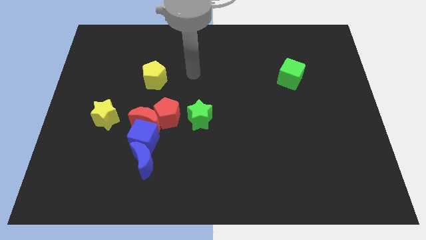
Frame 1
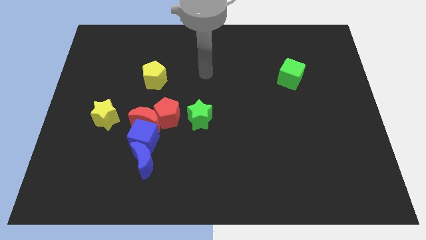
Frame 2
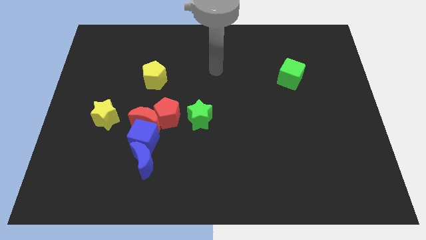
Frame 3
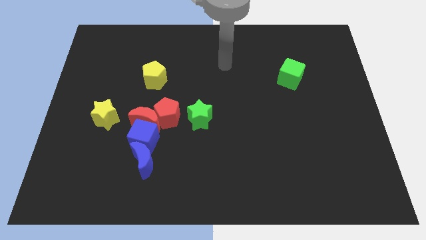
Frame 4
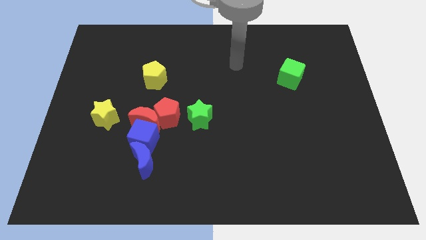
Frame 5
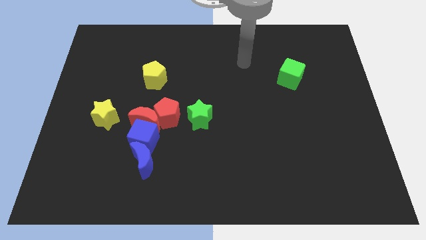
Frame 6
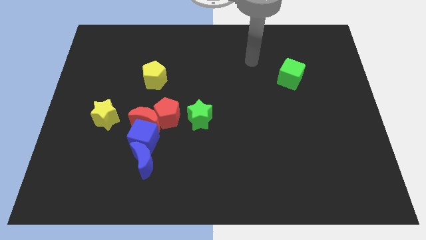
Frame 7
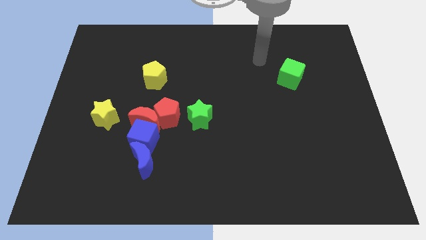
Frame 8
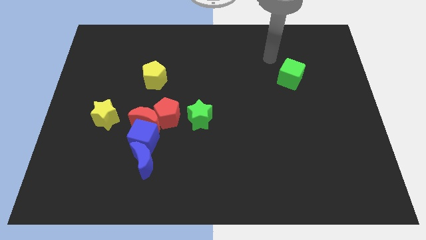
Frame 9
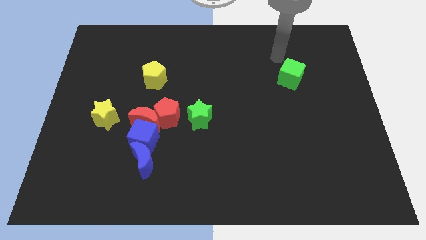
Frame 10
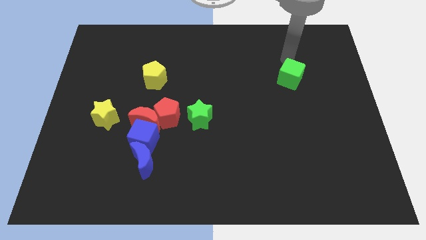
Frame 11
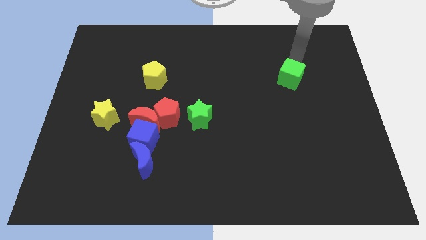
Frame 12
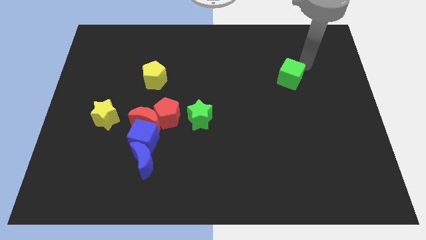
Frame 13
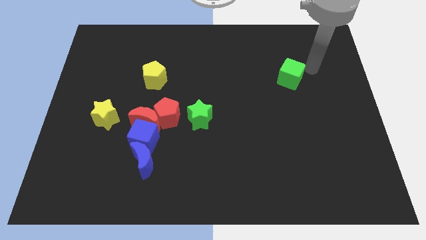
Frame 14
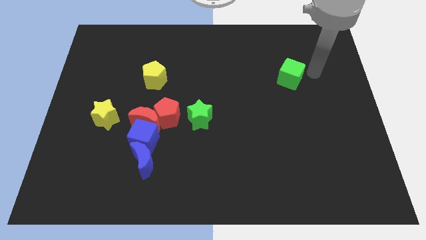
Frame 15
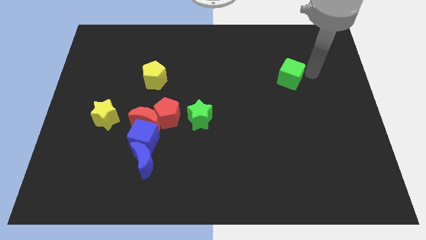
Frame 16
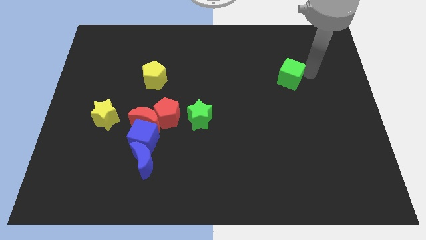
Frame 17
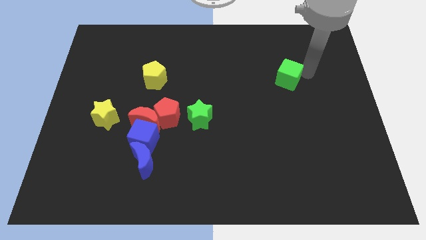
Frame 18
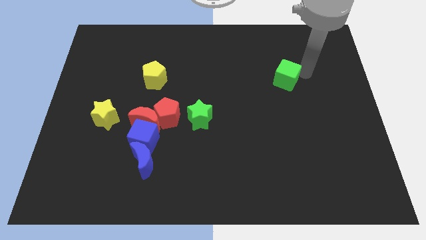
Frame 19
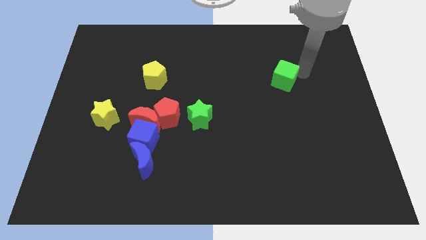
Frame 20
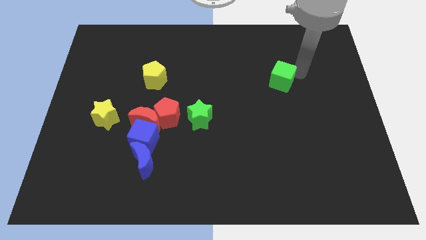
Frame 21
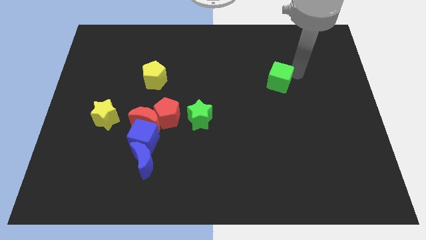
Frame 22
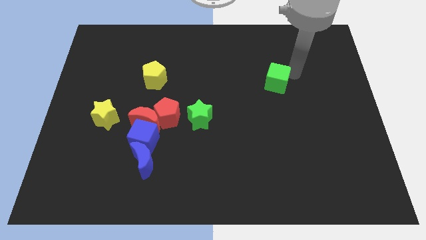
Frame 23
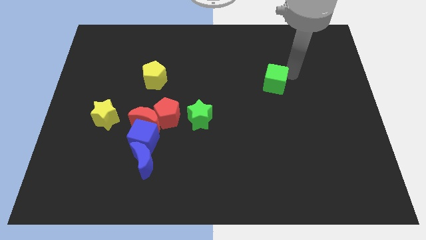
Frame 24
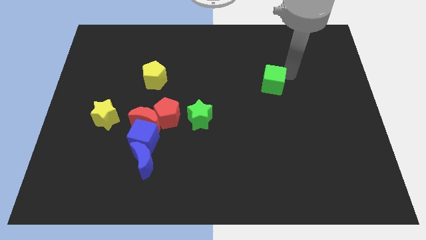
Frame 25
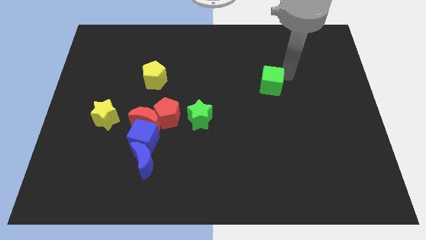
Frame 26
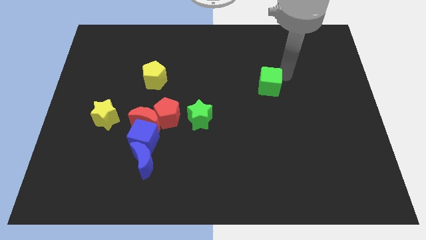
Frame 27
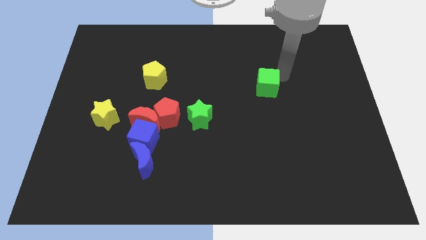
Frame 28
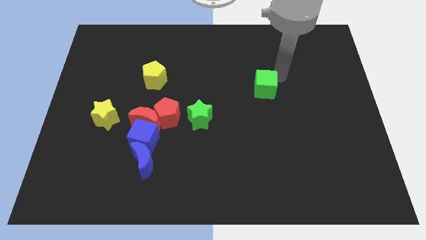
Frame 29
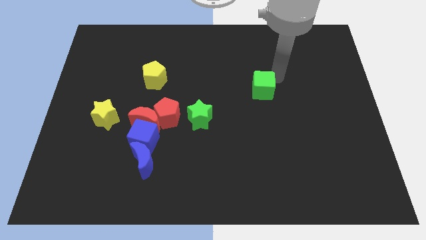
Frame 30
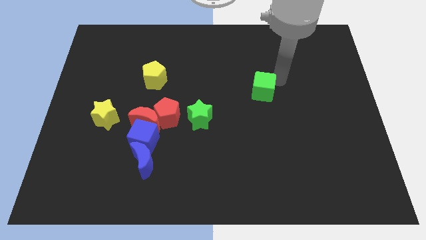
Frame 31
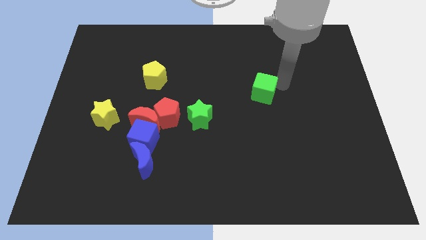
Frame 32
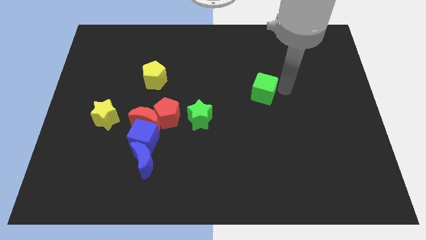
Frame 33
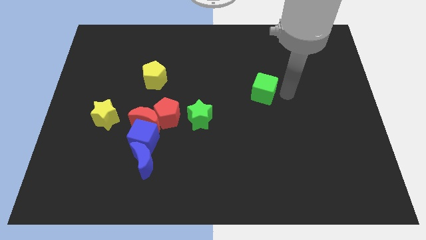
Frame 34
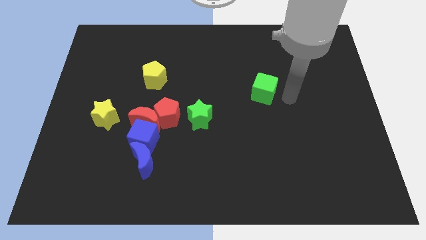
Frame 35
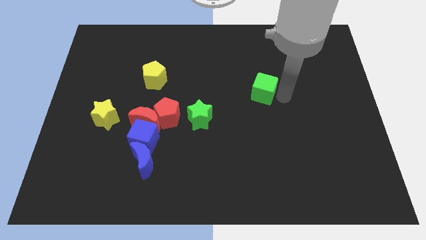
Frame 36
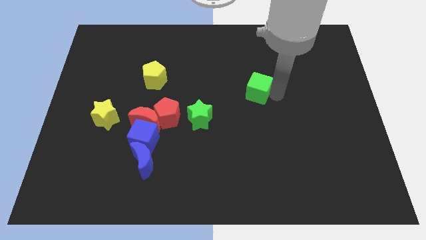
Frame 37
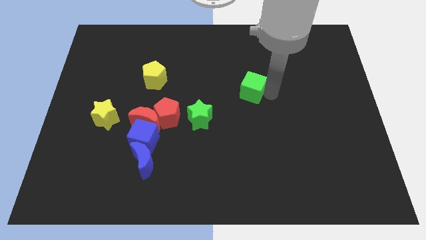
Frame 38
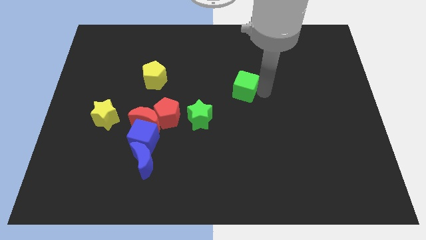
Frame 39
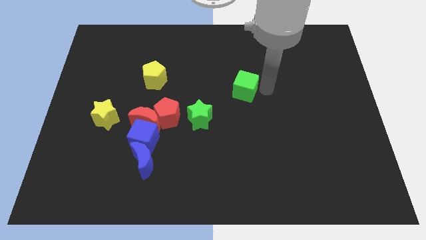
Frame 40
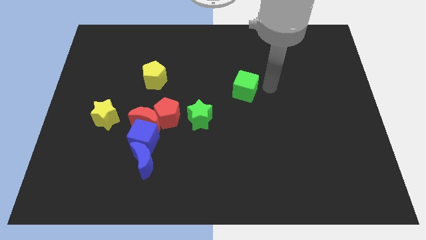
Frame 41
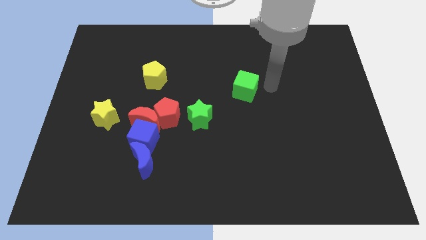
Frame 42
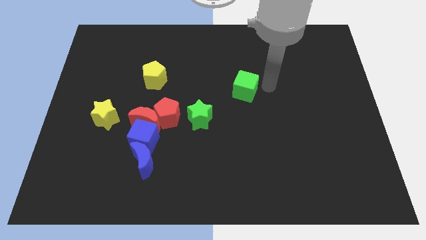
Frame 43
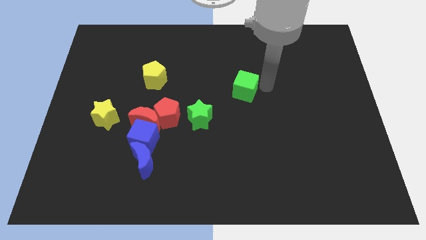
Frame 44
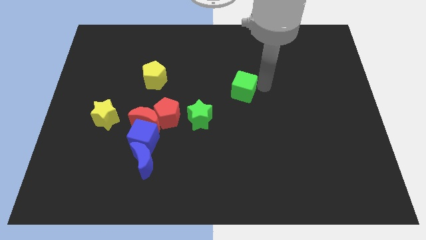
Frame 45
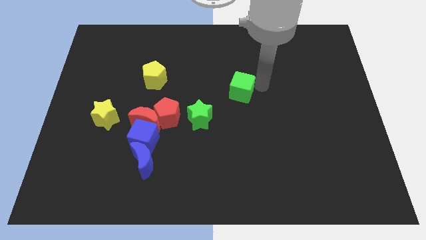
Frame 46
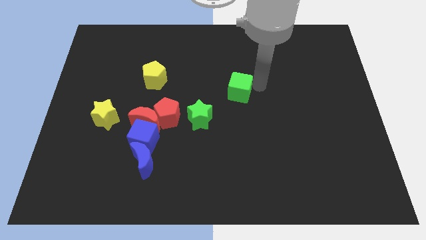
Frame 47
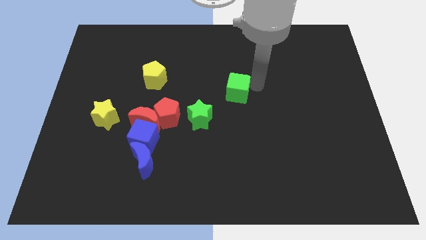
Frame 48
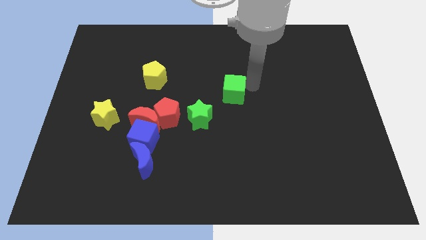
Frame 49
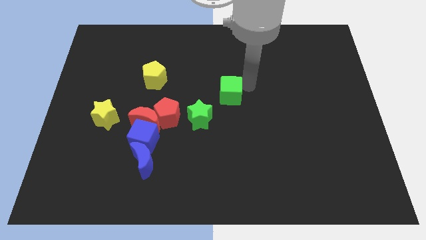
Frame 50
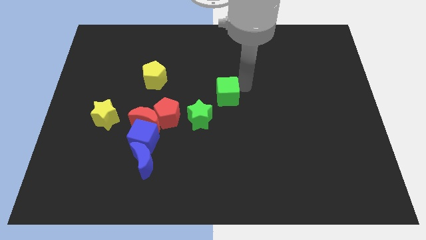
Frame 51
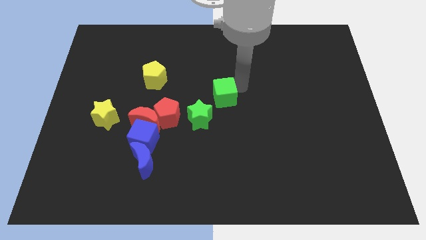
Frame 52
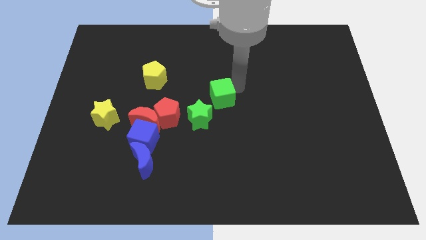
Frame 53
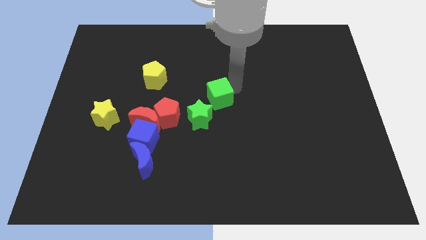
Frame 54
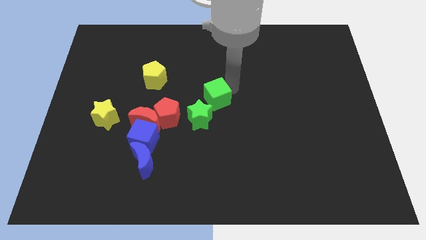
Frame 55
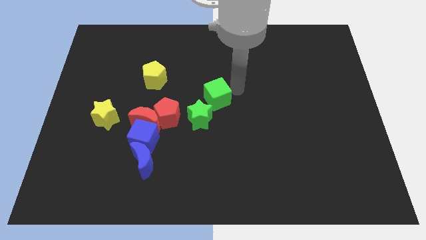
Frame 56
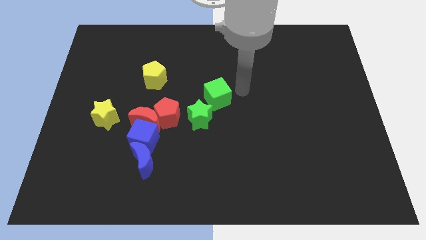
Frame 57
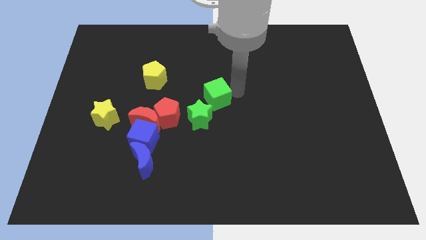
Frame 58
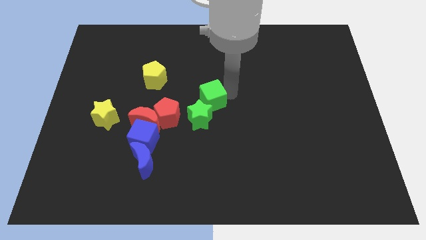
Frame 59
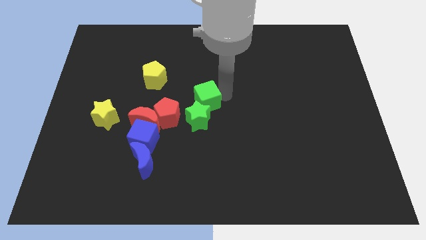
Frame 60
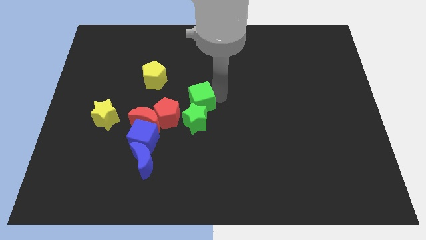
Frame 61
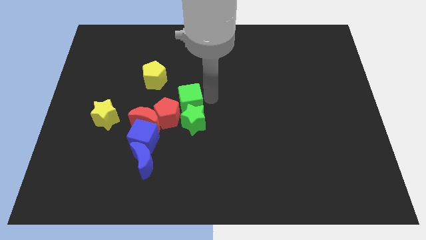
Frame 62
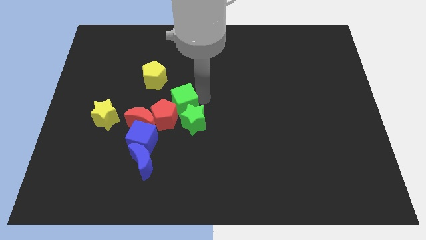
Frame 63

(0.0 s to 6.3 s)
slide the green cube next to the red pentagon

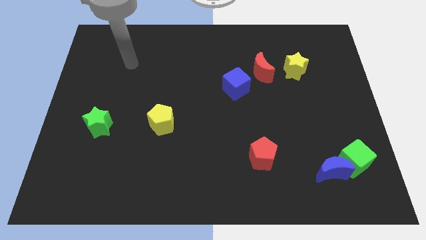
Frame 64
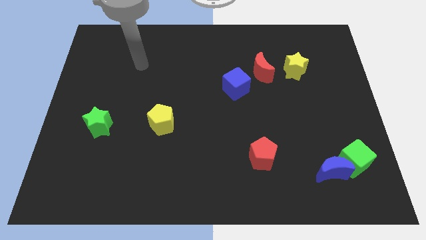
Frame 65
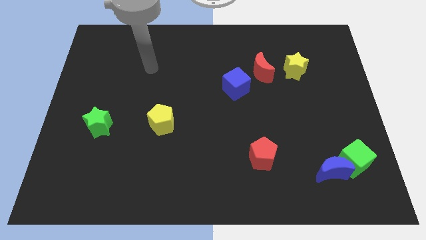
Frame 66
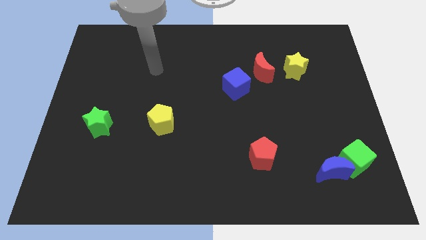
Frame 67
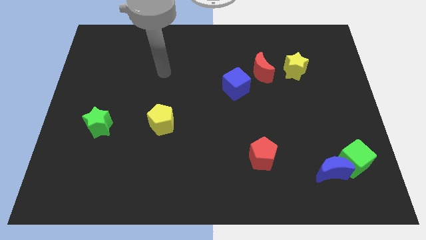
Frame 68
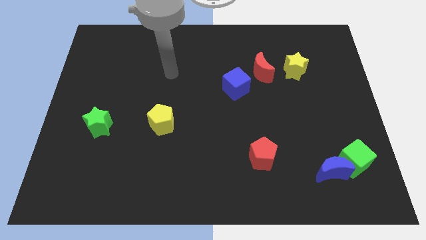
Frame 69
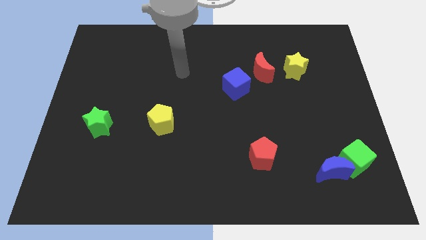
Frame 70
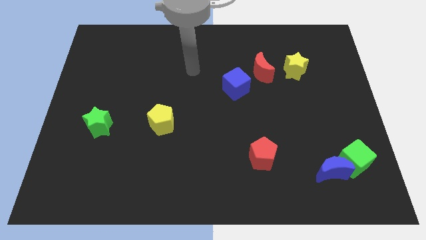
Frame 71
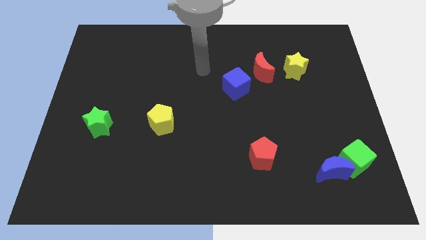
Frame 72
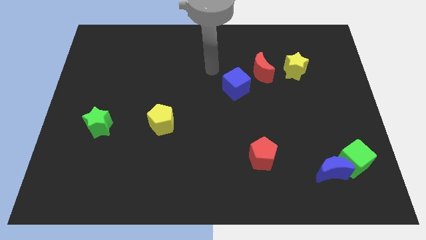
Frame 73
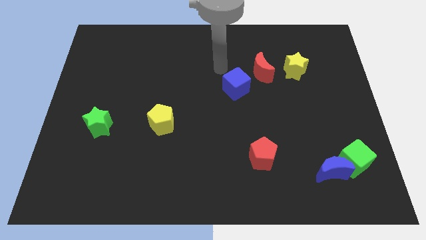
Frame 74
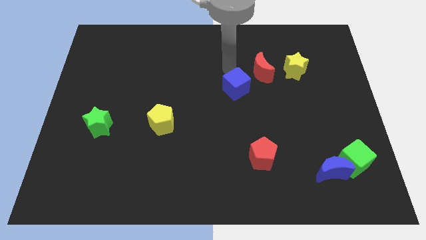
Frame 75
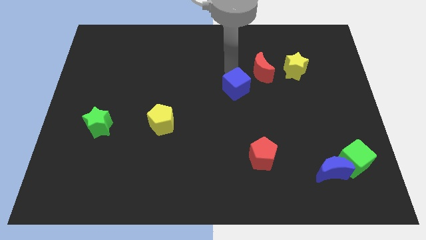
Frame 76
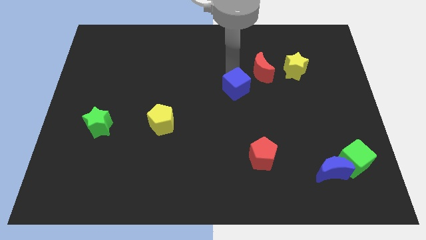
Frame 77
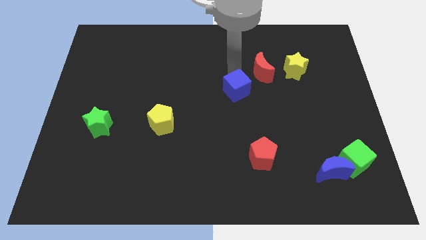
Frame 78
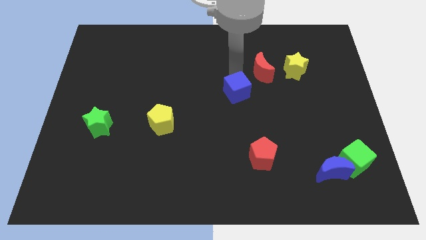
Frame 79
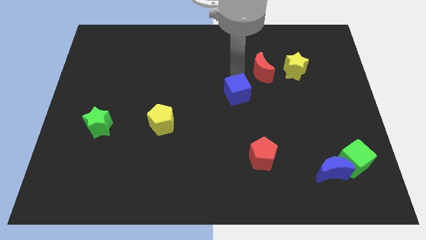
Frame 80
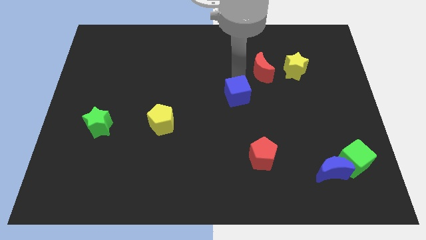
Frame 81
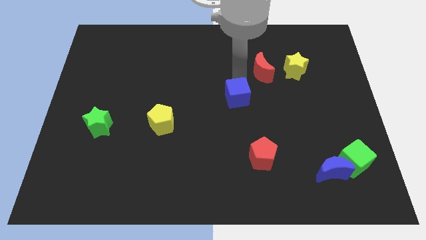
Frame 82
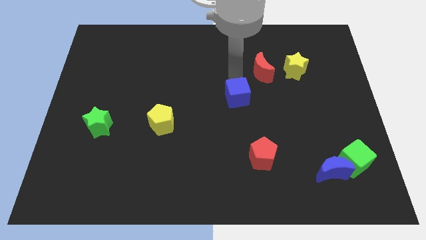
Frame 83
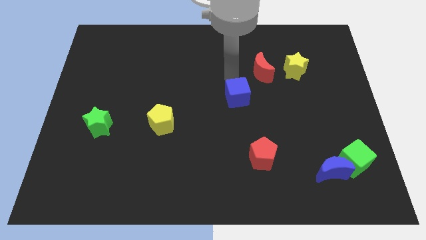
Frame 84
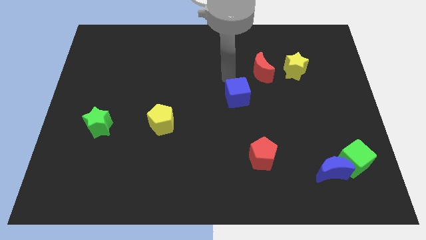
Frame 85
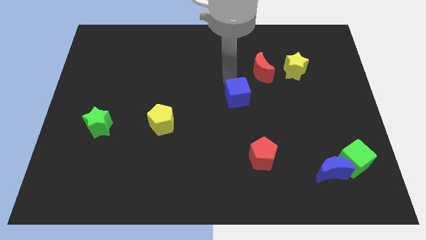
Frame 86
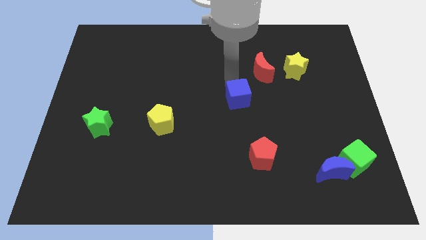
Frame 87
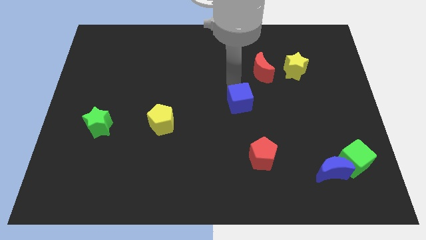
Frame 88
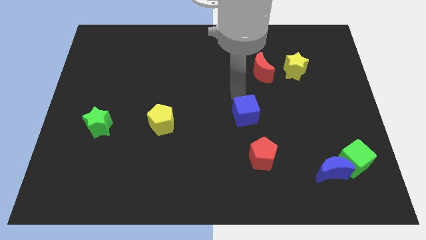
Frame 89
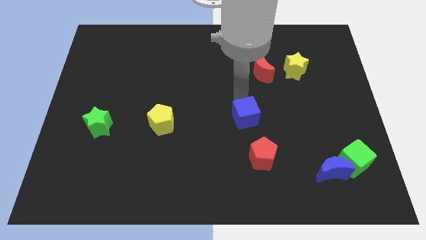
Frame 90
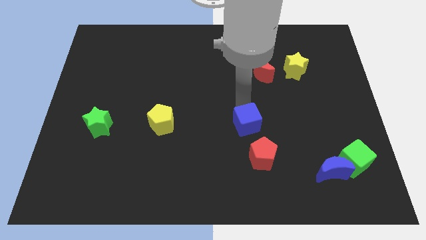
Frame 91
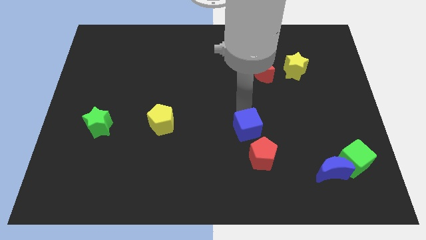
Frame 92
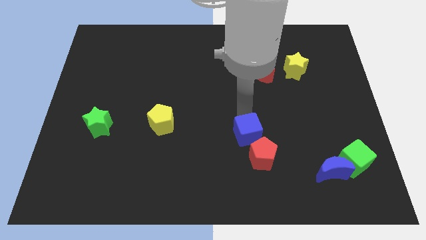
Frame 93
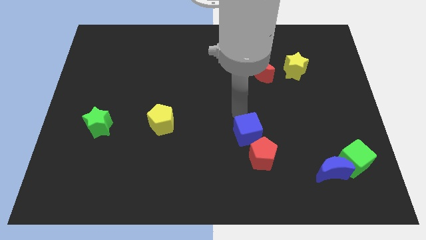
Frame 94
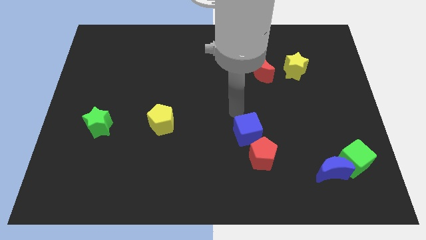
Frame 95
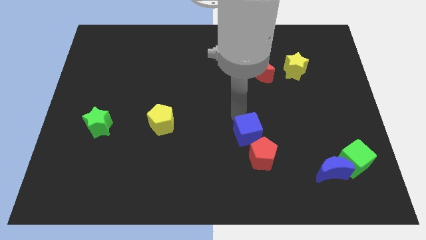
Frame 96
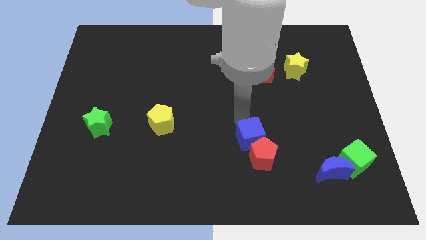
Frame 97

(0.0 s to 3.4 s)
slide the blue cube next to the red pentagon
